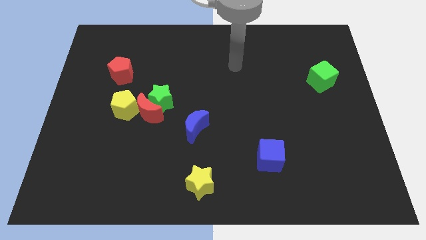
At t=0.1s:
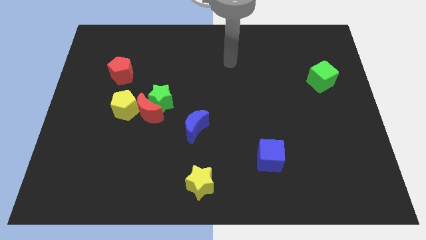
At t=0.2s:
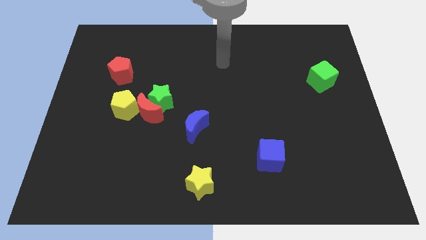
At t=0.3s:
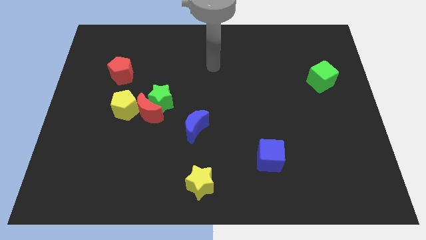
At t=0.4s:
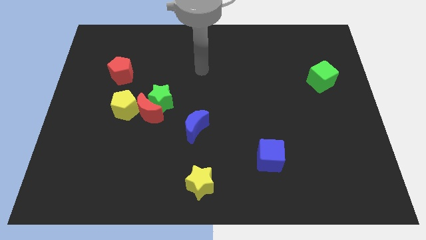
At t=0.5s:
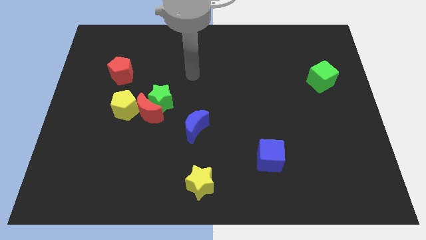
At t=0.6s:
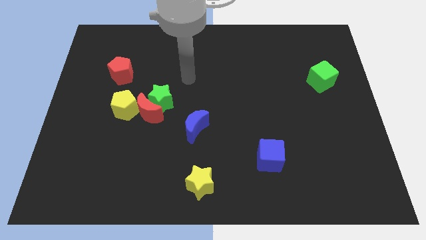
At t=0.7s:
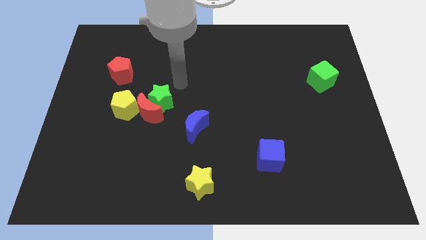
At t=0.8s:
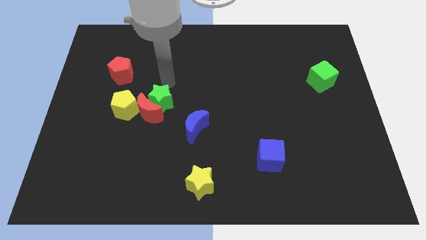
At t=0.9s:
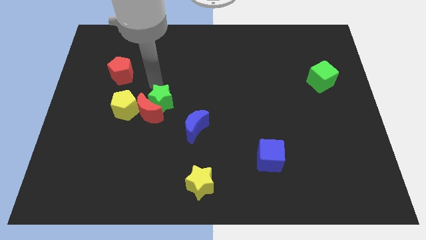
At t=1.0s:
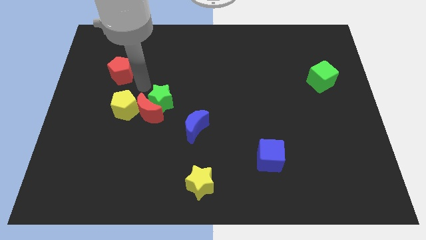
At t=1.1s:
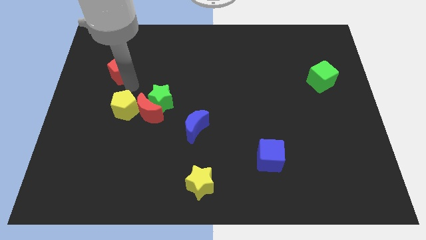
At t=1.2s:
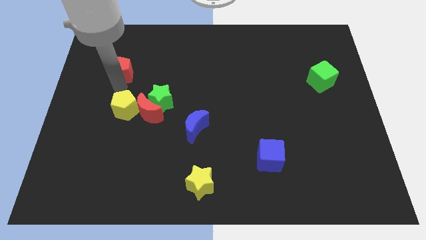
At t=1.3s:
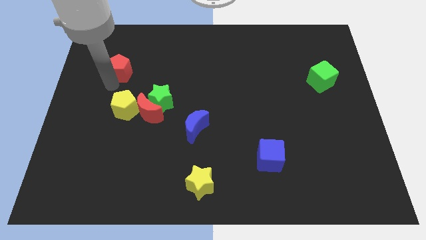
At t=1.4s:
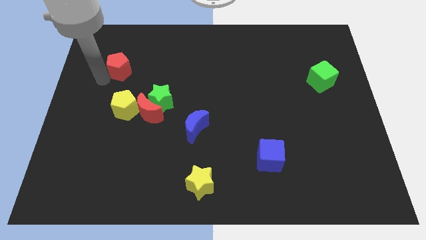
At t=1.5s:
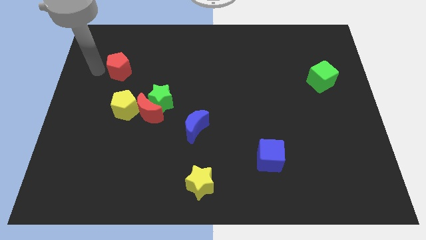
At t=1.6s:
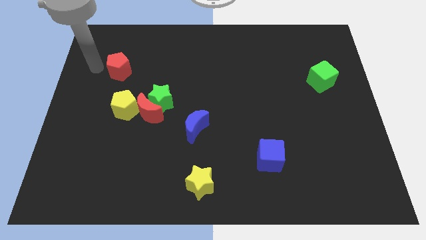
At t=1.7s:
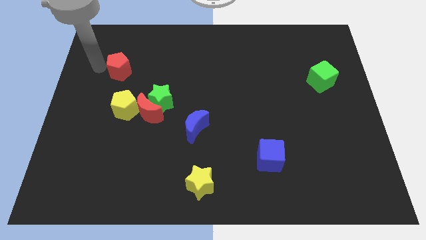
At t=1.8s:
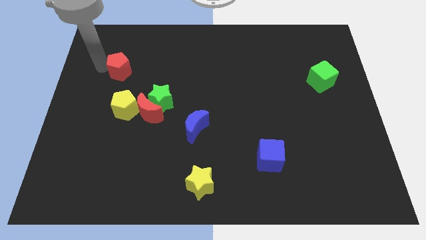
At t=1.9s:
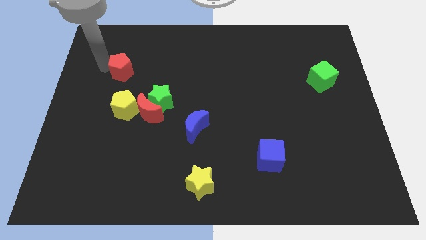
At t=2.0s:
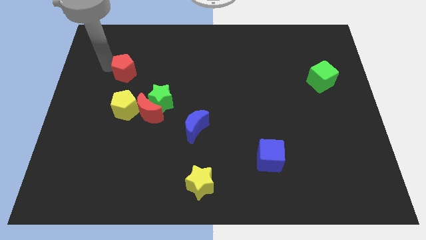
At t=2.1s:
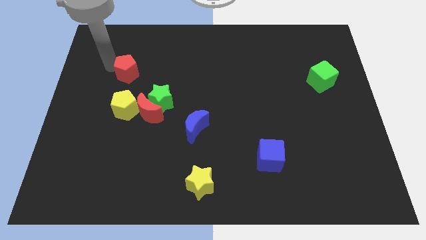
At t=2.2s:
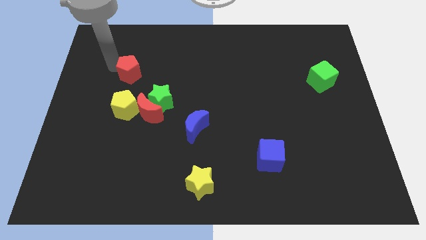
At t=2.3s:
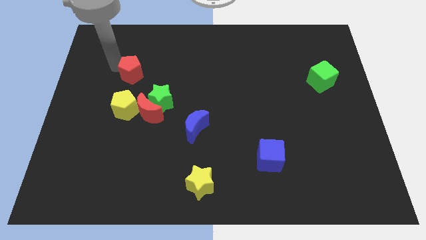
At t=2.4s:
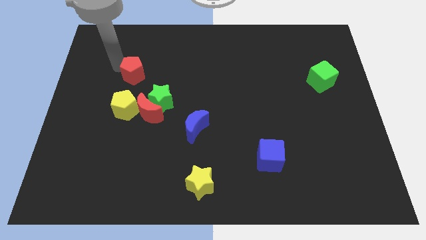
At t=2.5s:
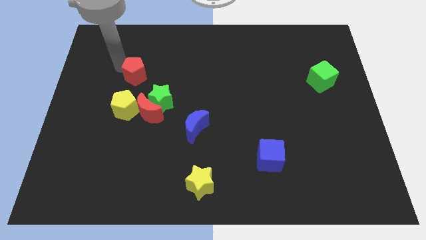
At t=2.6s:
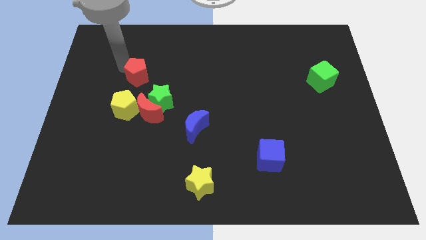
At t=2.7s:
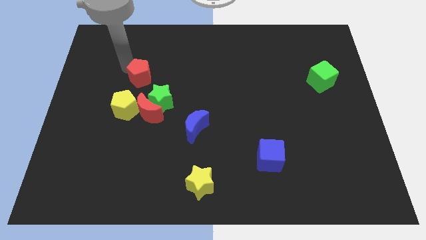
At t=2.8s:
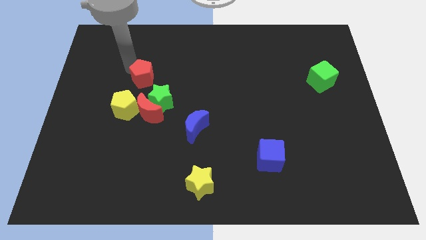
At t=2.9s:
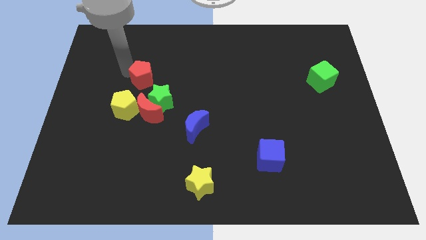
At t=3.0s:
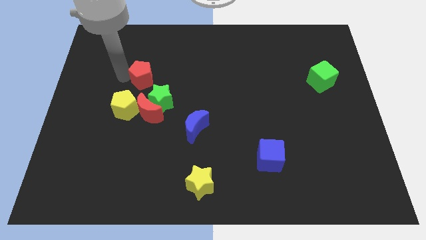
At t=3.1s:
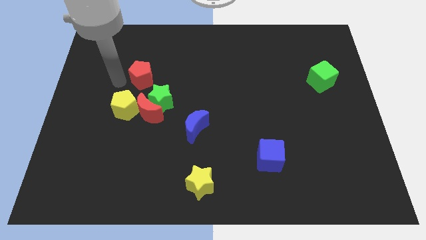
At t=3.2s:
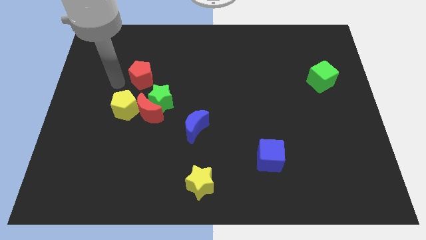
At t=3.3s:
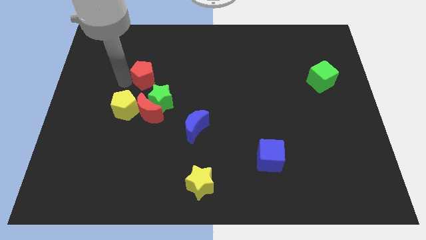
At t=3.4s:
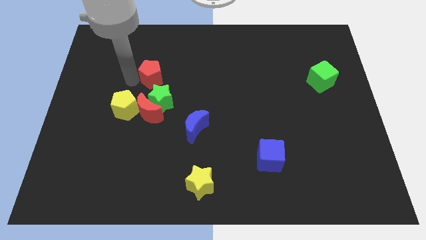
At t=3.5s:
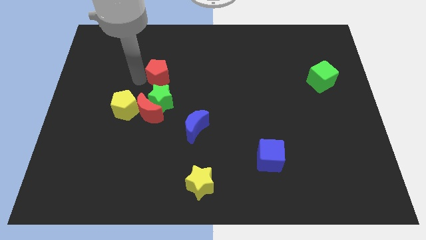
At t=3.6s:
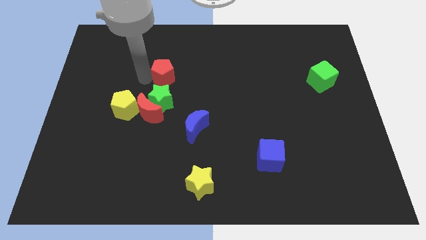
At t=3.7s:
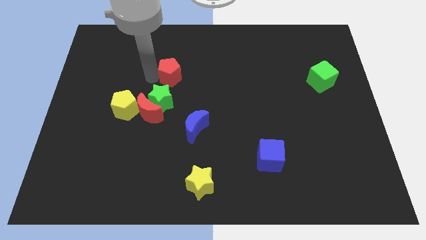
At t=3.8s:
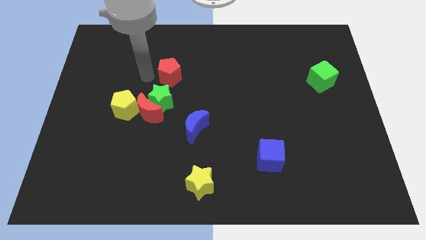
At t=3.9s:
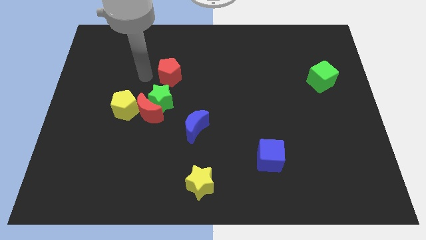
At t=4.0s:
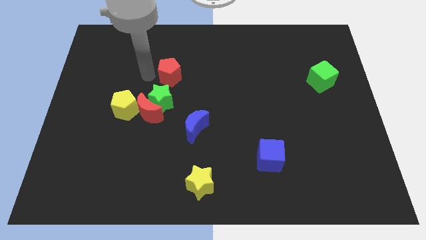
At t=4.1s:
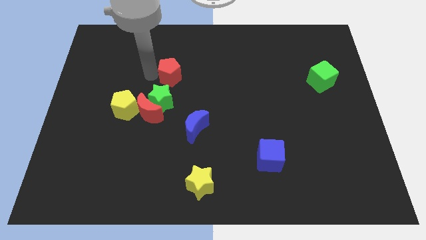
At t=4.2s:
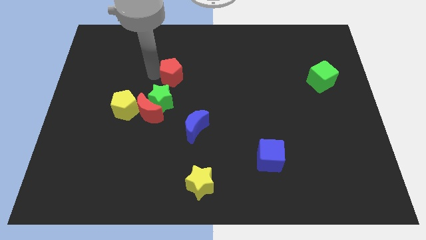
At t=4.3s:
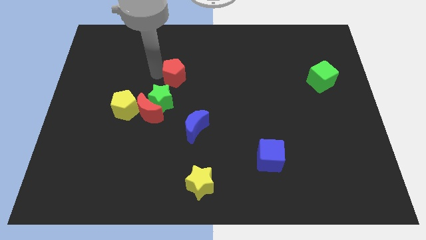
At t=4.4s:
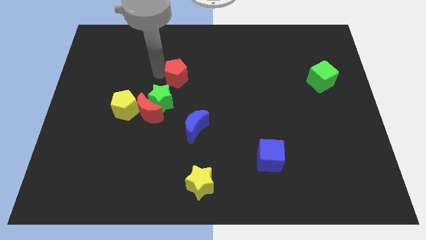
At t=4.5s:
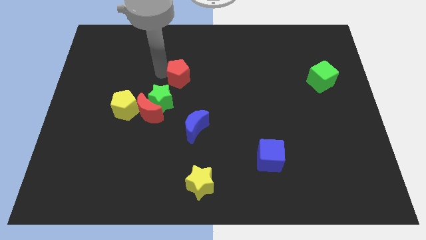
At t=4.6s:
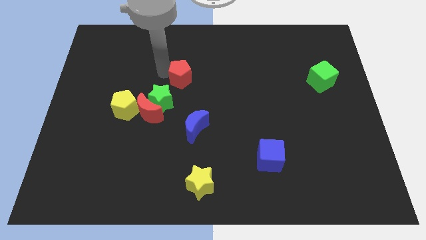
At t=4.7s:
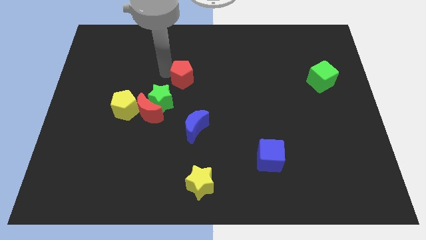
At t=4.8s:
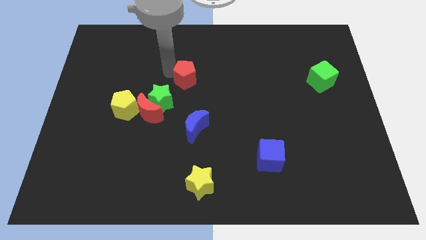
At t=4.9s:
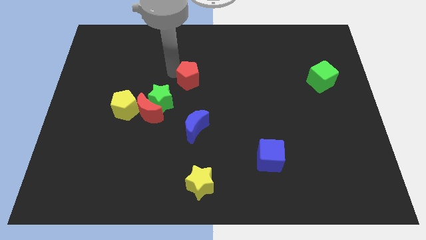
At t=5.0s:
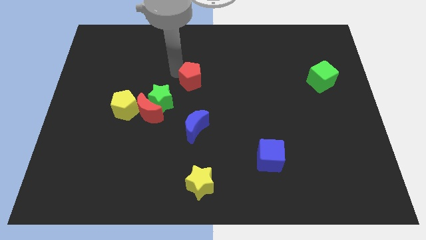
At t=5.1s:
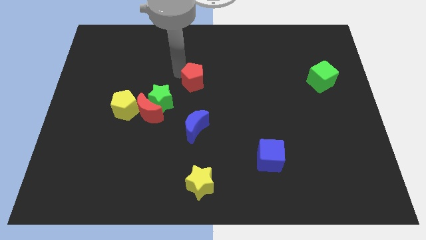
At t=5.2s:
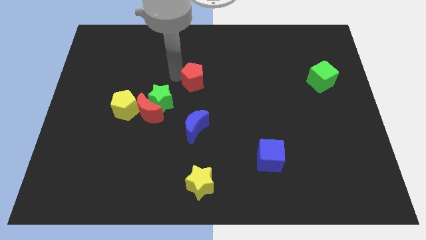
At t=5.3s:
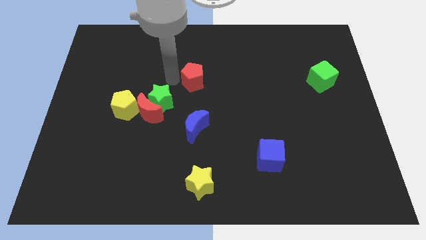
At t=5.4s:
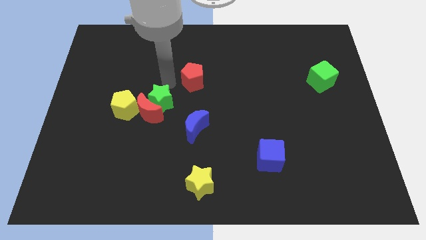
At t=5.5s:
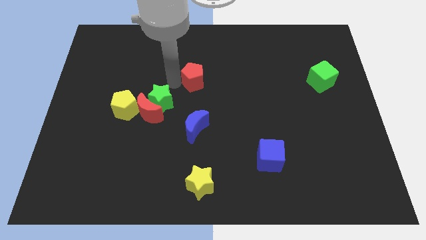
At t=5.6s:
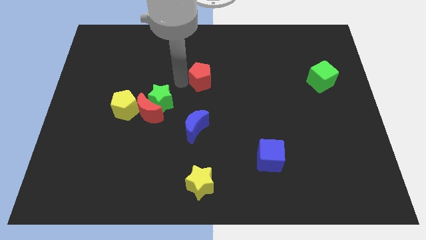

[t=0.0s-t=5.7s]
move the red pentagon to the right

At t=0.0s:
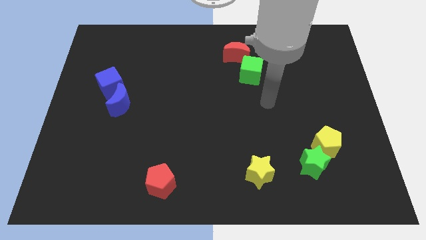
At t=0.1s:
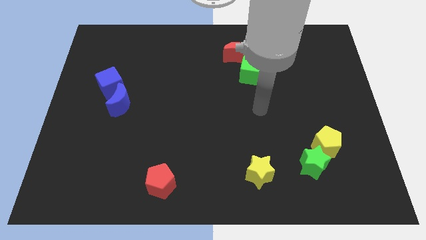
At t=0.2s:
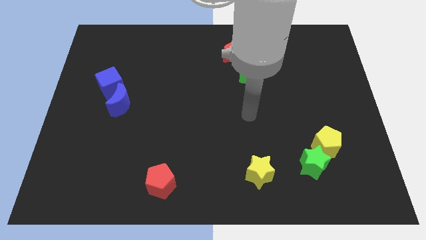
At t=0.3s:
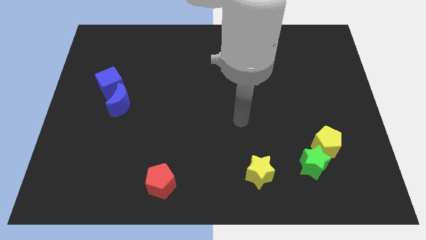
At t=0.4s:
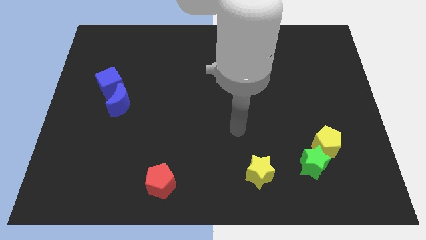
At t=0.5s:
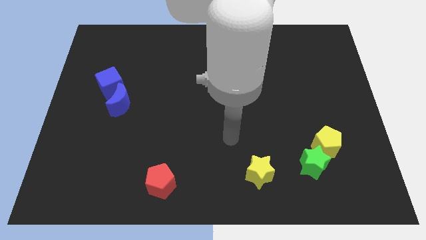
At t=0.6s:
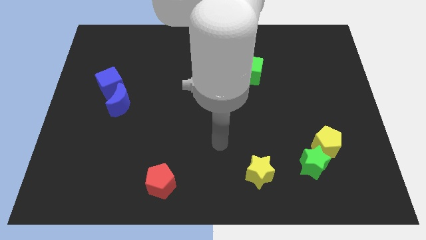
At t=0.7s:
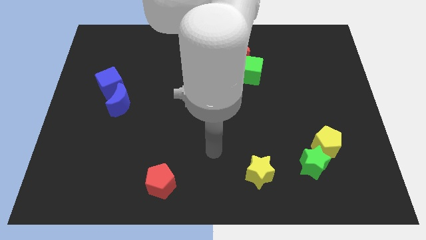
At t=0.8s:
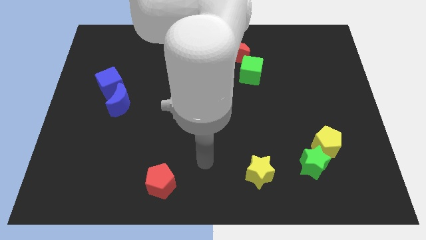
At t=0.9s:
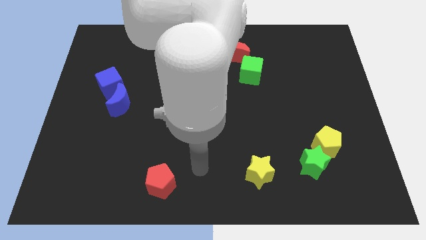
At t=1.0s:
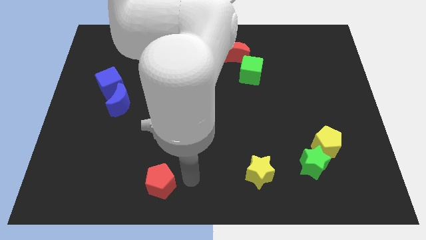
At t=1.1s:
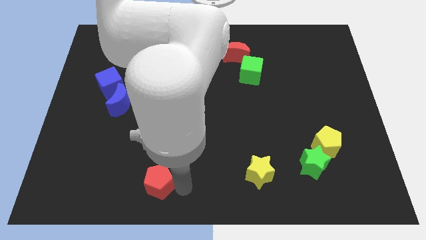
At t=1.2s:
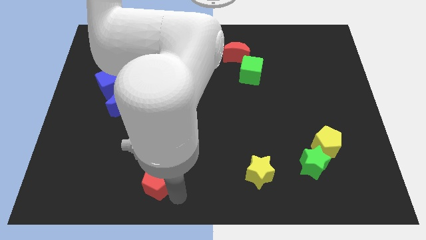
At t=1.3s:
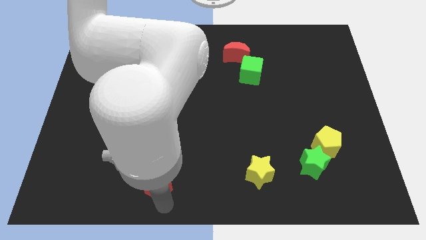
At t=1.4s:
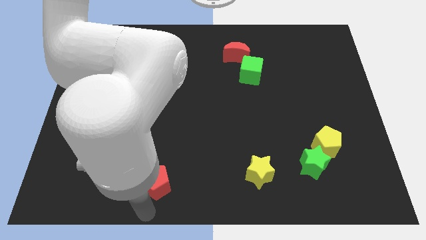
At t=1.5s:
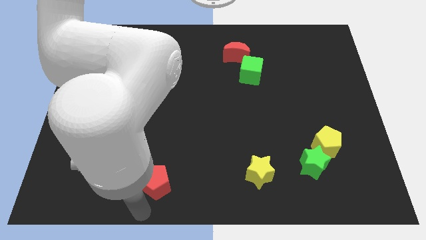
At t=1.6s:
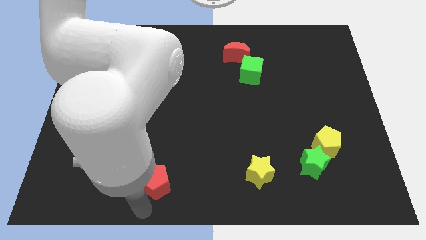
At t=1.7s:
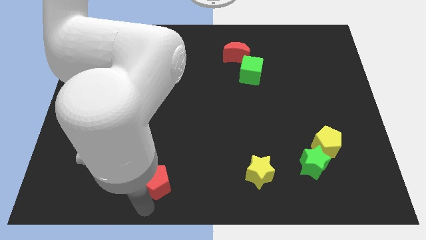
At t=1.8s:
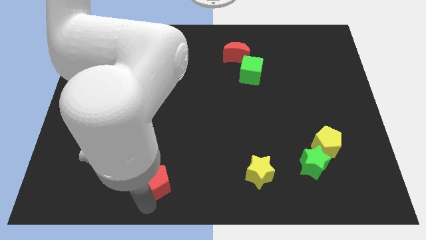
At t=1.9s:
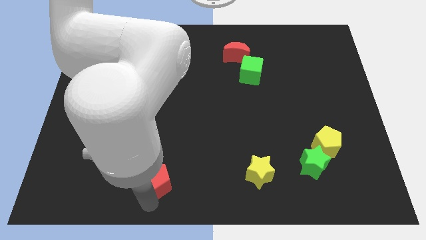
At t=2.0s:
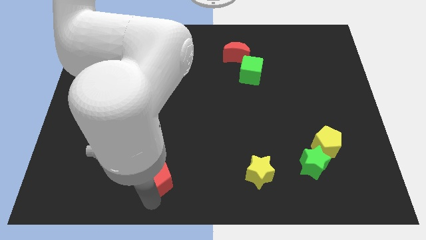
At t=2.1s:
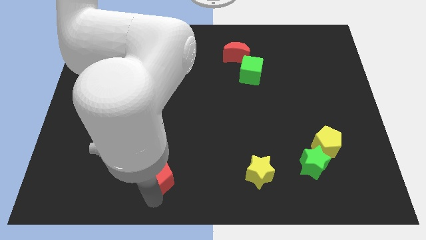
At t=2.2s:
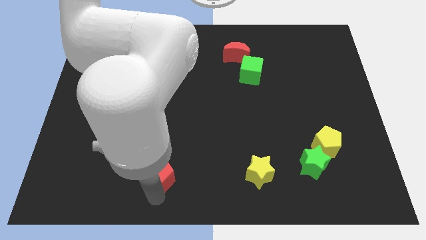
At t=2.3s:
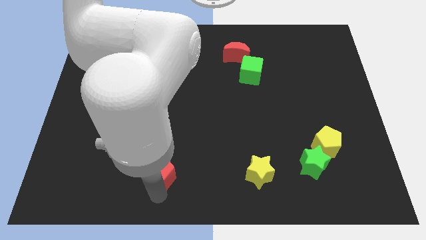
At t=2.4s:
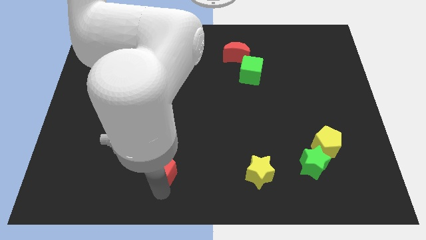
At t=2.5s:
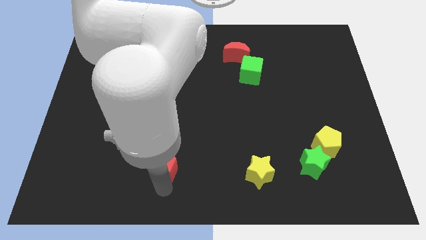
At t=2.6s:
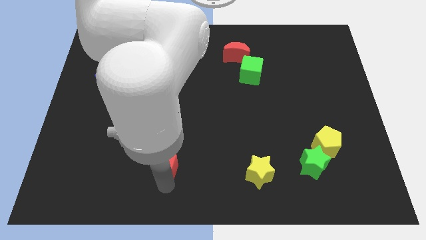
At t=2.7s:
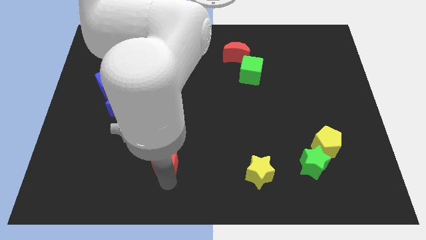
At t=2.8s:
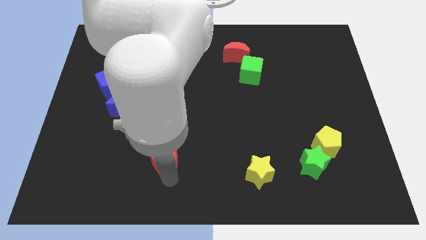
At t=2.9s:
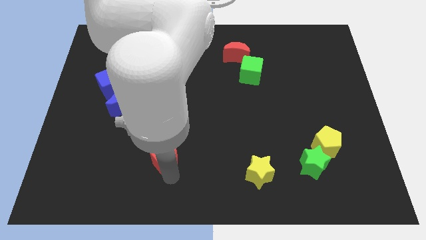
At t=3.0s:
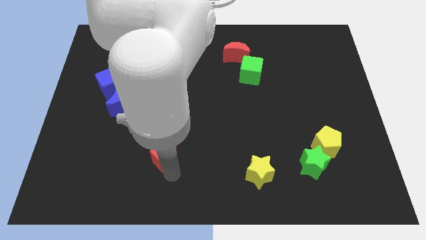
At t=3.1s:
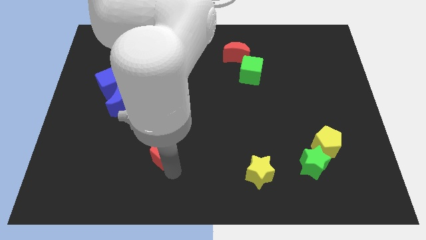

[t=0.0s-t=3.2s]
push the red pentagon up slightly
